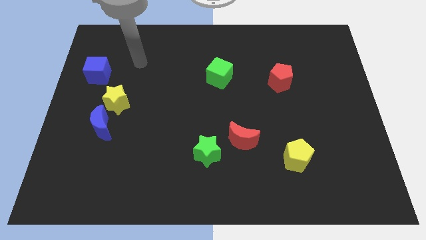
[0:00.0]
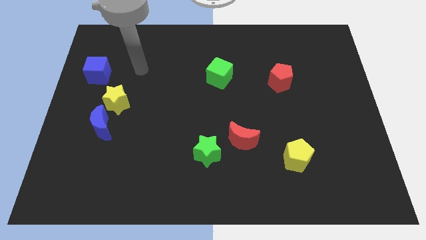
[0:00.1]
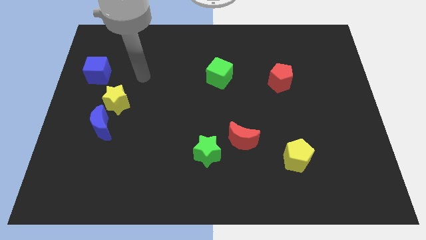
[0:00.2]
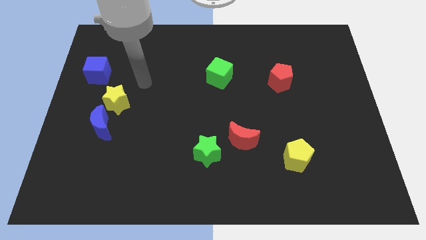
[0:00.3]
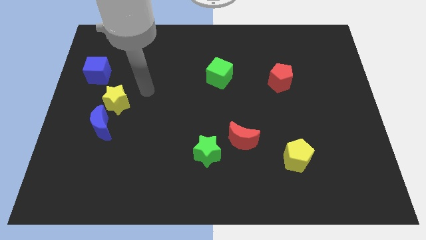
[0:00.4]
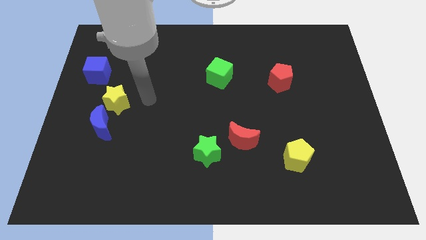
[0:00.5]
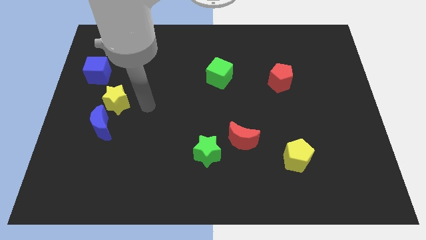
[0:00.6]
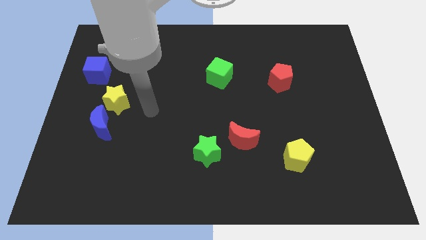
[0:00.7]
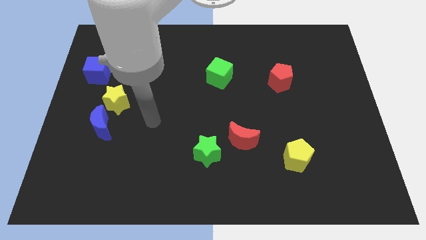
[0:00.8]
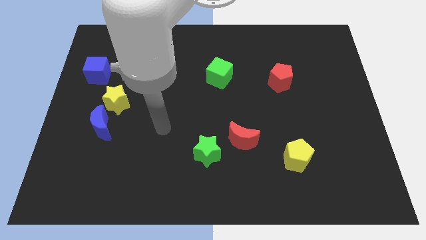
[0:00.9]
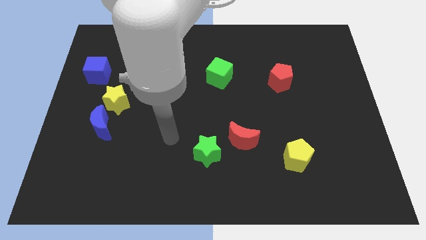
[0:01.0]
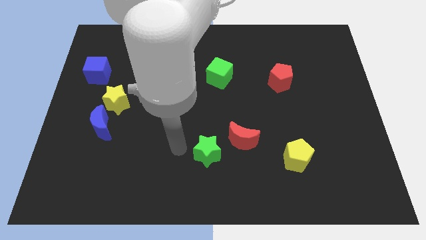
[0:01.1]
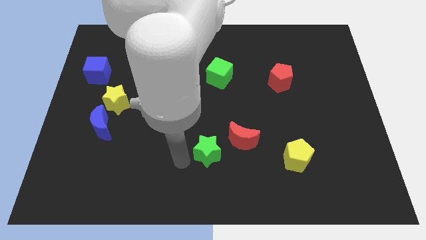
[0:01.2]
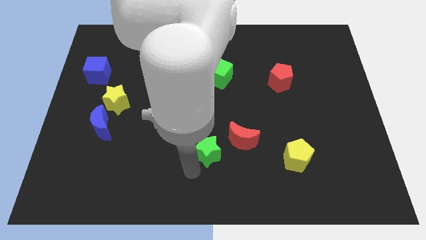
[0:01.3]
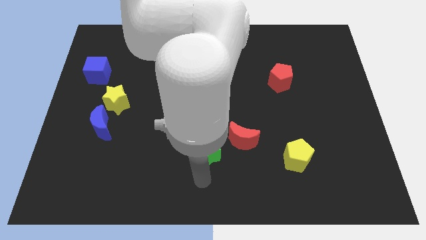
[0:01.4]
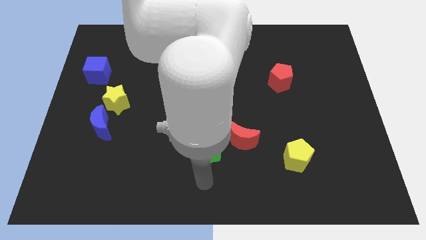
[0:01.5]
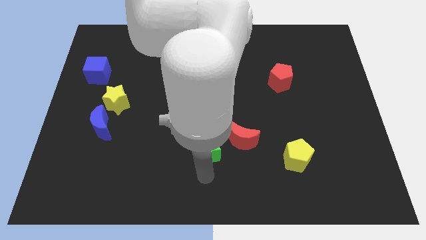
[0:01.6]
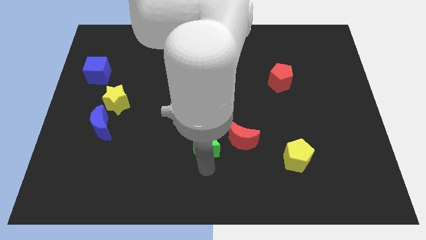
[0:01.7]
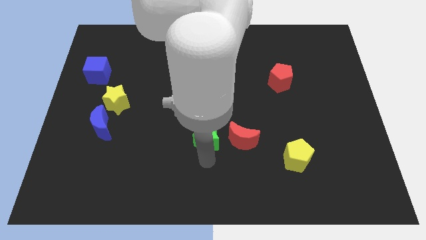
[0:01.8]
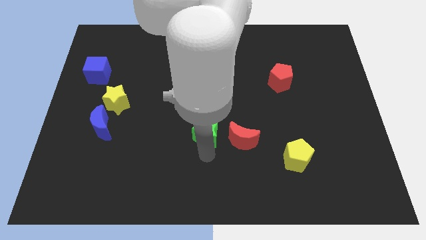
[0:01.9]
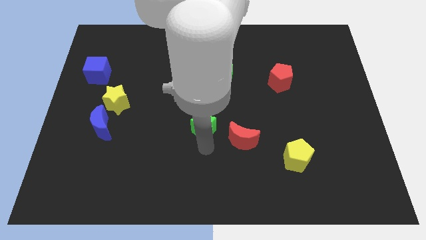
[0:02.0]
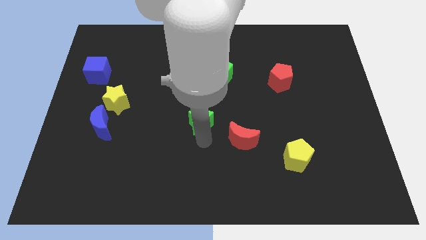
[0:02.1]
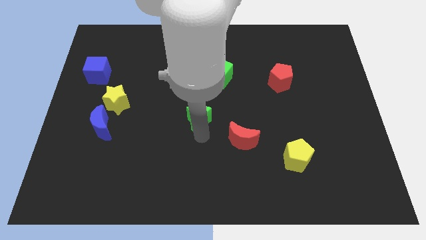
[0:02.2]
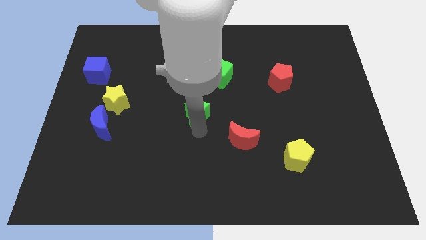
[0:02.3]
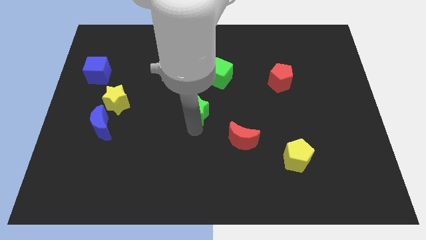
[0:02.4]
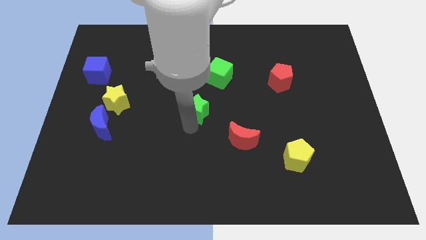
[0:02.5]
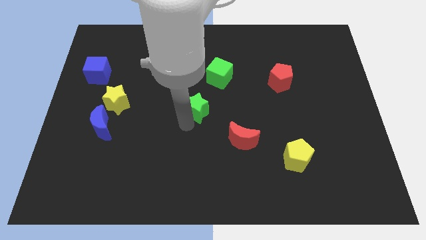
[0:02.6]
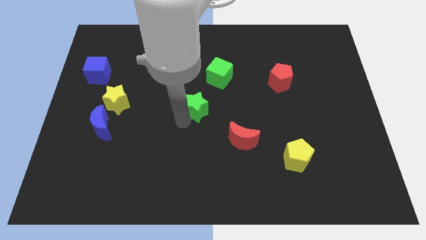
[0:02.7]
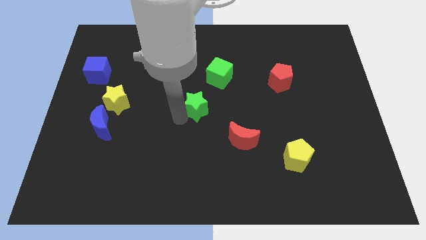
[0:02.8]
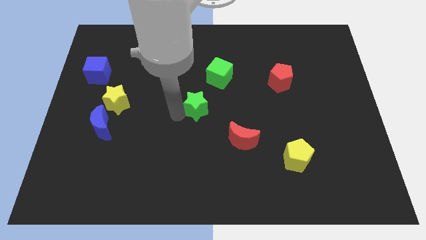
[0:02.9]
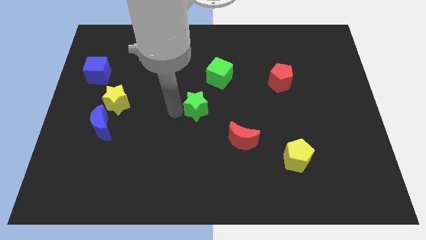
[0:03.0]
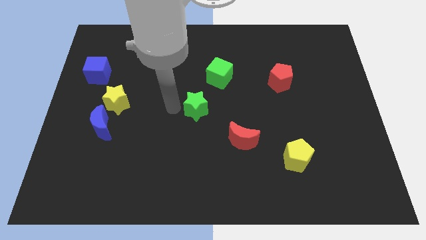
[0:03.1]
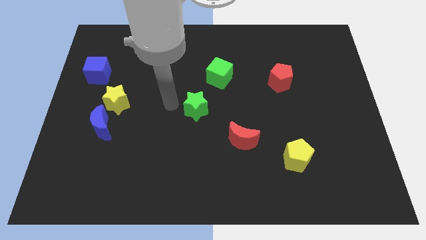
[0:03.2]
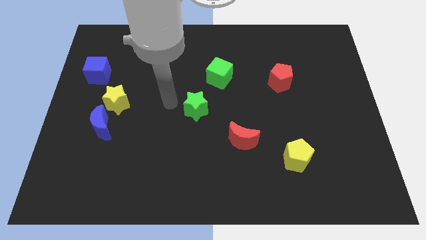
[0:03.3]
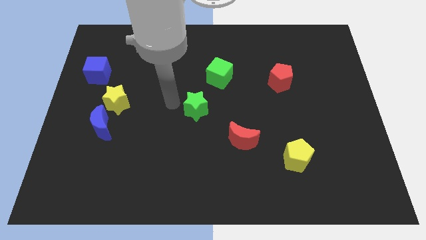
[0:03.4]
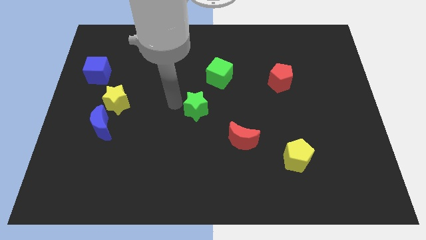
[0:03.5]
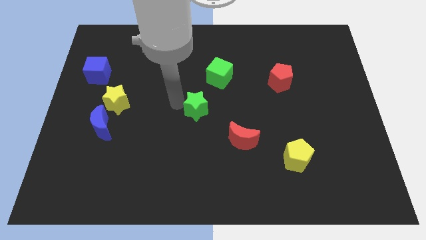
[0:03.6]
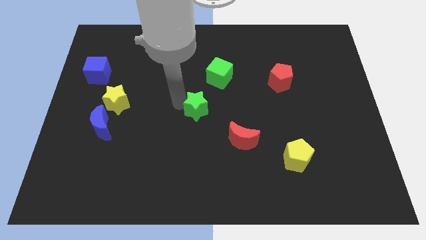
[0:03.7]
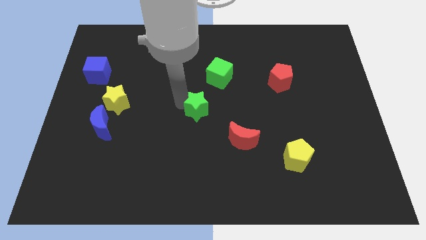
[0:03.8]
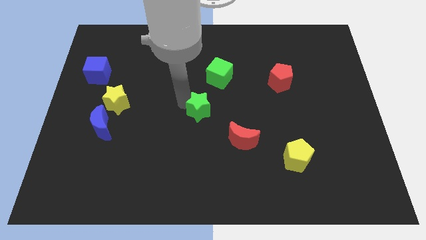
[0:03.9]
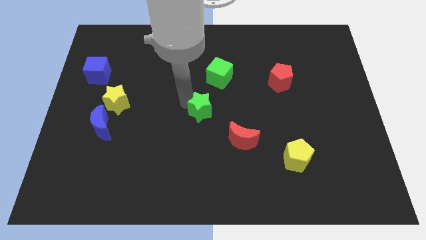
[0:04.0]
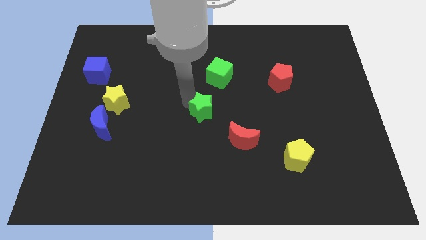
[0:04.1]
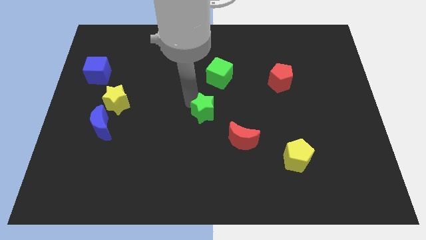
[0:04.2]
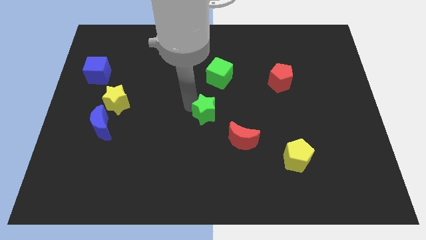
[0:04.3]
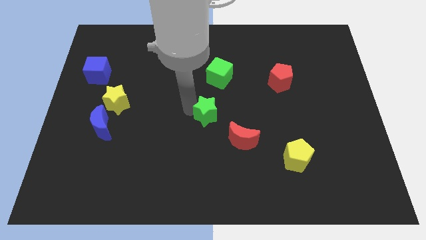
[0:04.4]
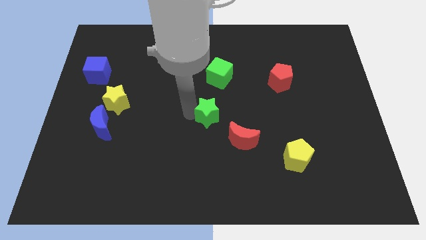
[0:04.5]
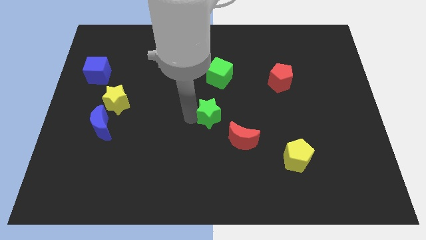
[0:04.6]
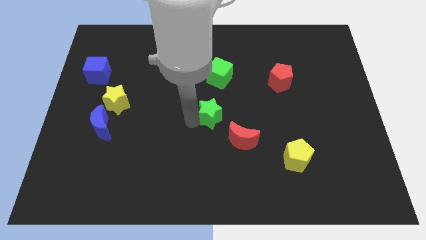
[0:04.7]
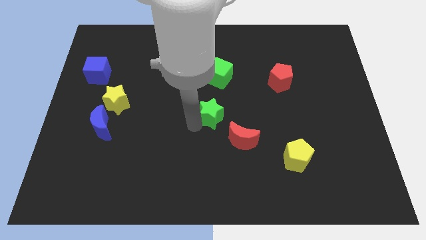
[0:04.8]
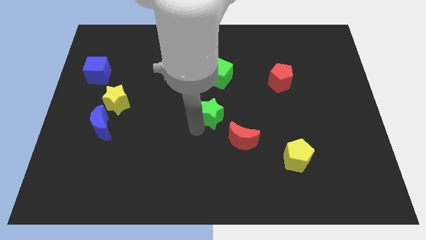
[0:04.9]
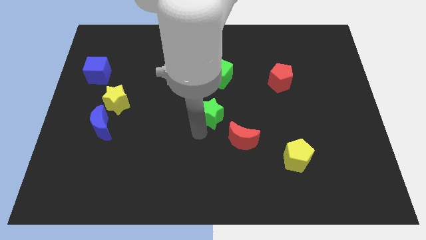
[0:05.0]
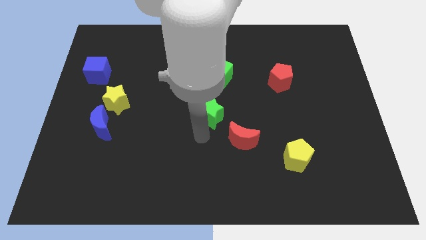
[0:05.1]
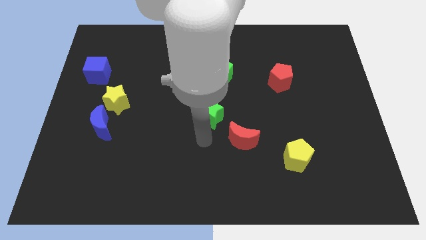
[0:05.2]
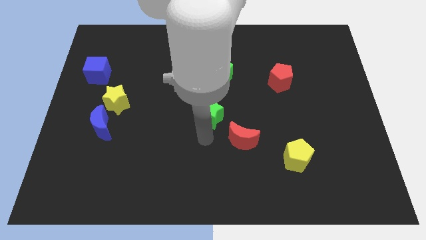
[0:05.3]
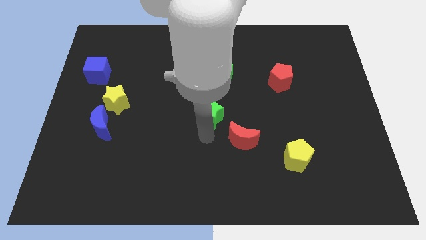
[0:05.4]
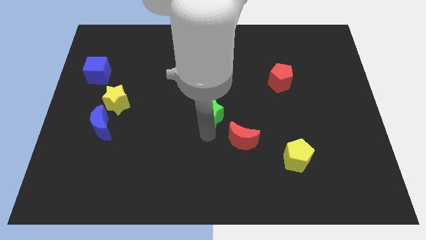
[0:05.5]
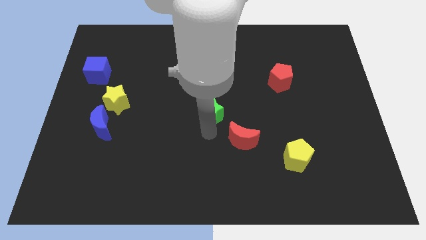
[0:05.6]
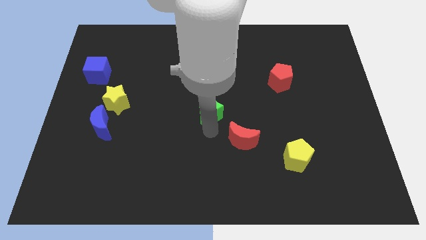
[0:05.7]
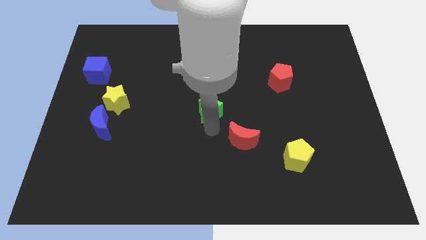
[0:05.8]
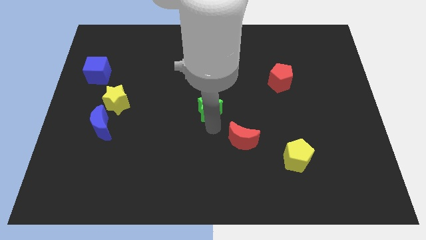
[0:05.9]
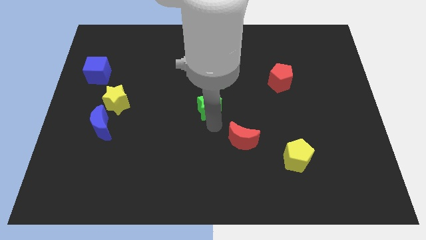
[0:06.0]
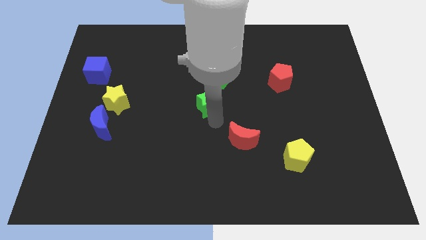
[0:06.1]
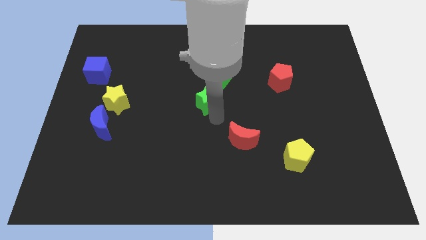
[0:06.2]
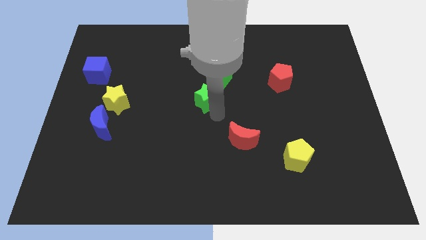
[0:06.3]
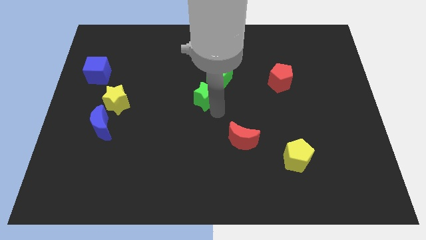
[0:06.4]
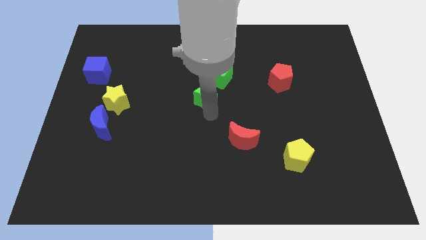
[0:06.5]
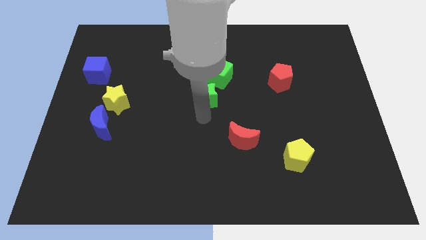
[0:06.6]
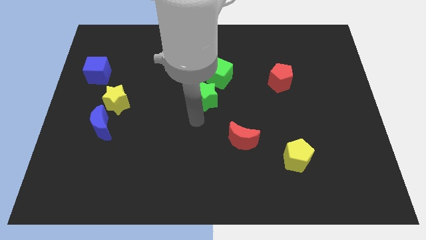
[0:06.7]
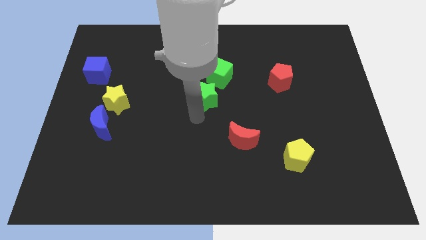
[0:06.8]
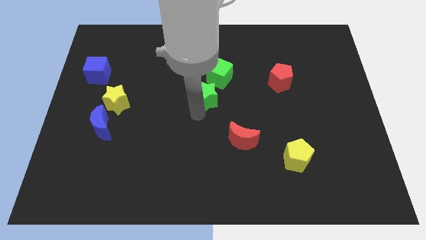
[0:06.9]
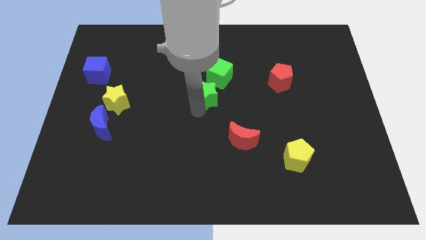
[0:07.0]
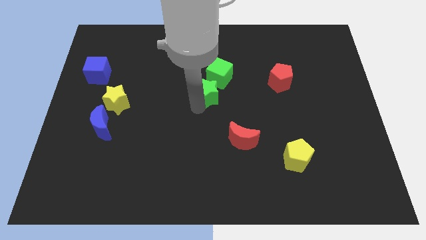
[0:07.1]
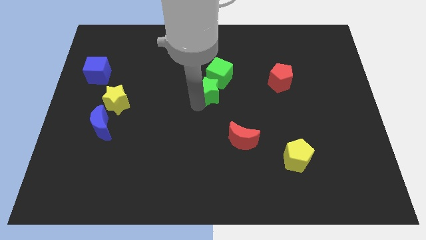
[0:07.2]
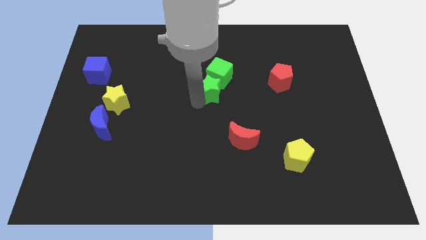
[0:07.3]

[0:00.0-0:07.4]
slide the green star next to the green cube

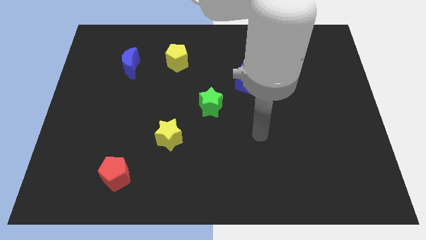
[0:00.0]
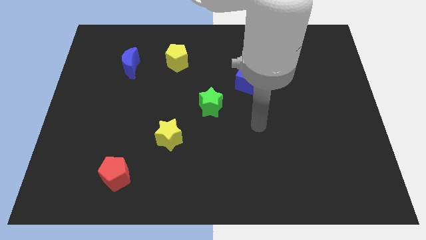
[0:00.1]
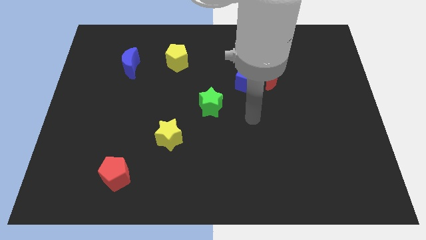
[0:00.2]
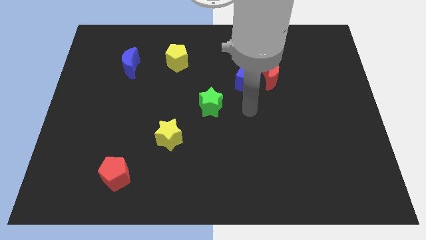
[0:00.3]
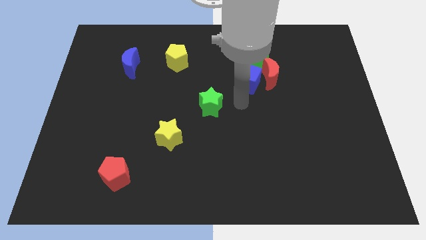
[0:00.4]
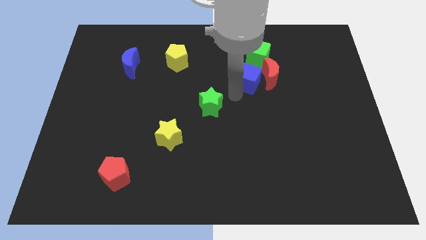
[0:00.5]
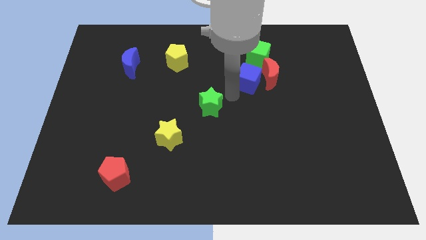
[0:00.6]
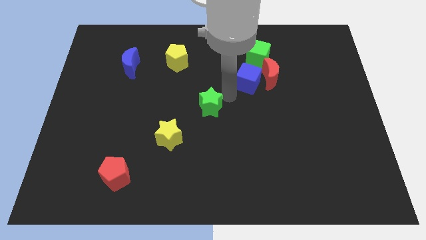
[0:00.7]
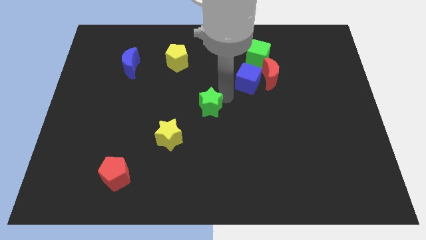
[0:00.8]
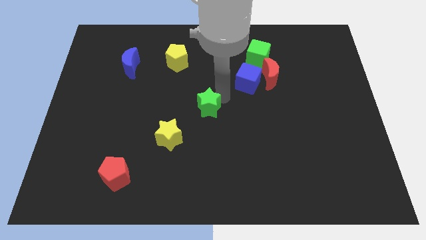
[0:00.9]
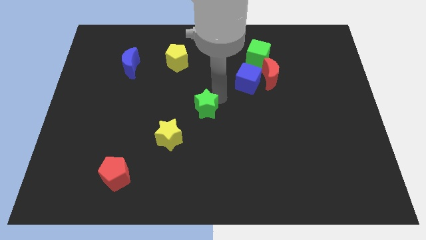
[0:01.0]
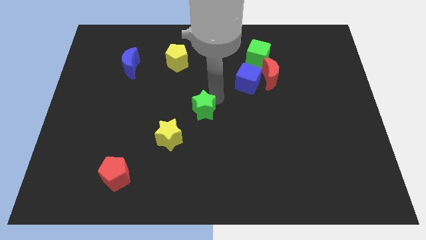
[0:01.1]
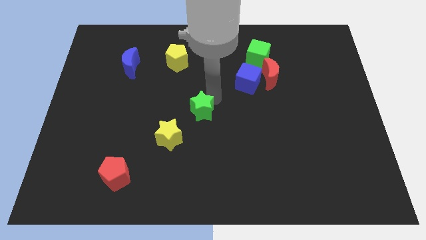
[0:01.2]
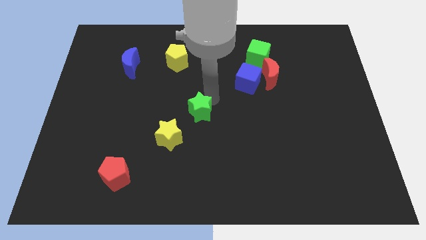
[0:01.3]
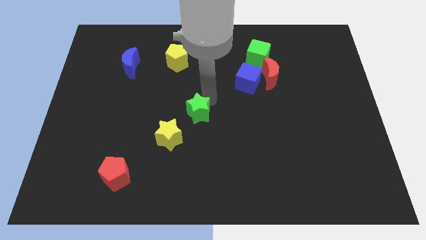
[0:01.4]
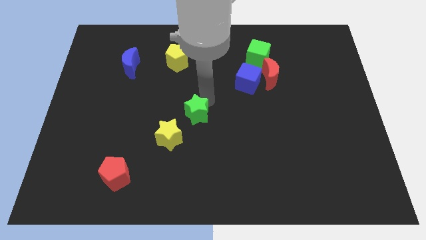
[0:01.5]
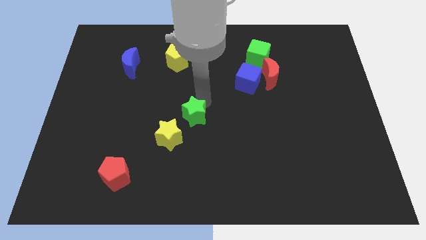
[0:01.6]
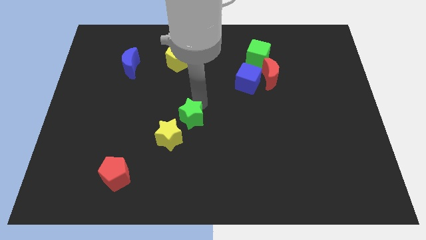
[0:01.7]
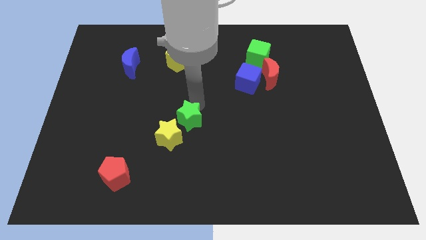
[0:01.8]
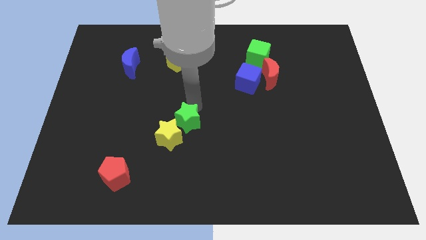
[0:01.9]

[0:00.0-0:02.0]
push the green star towards the yellow star
